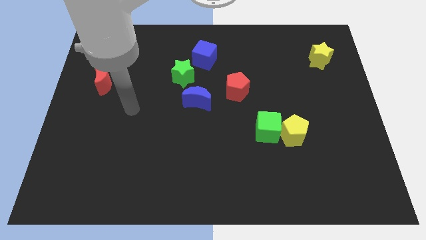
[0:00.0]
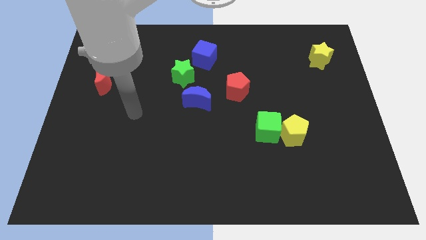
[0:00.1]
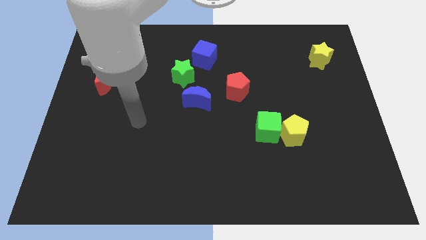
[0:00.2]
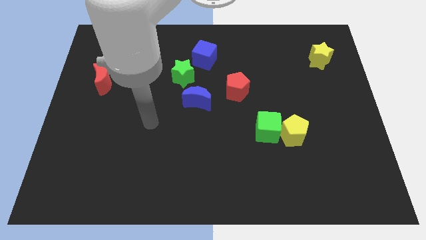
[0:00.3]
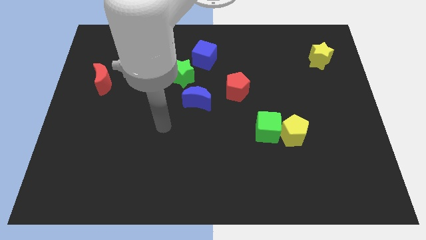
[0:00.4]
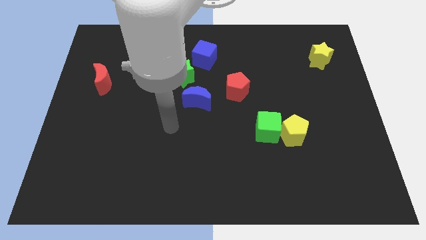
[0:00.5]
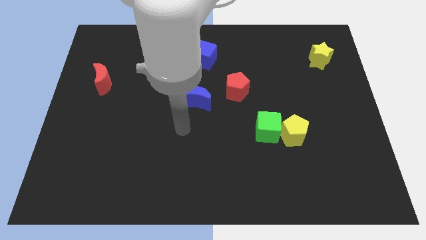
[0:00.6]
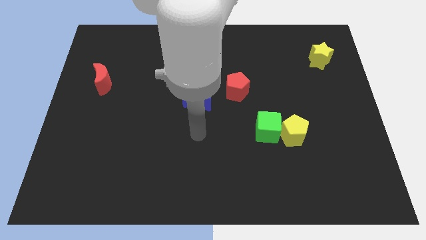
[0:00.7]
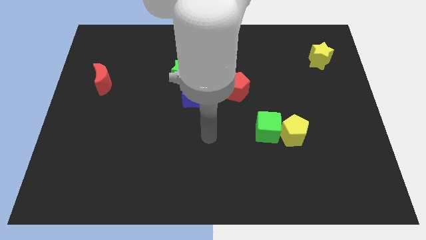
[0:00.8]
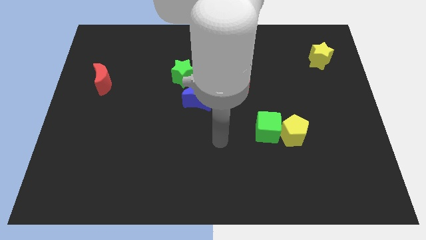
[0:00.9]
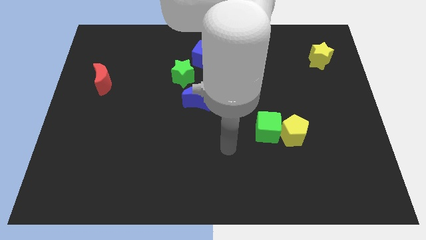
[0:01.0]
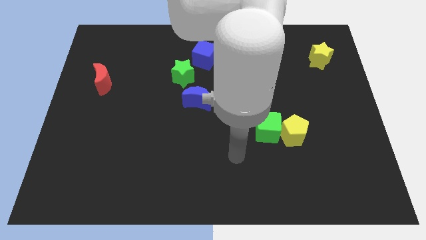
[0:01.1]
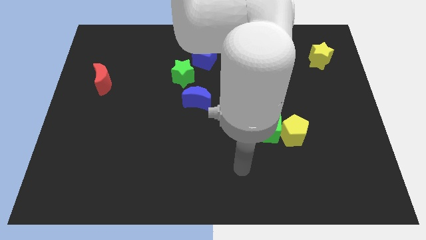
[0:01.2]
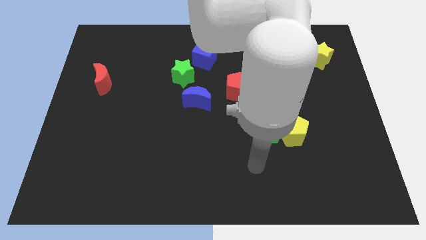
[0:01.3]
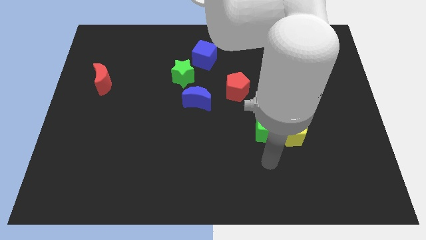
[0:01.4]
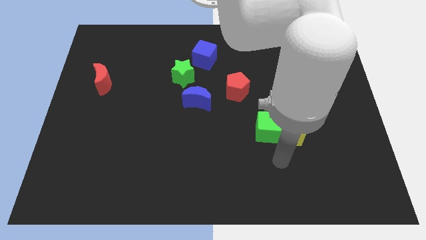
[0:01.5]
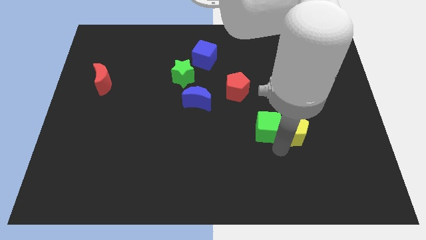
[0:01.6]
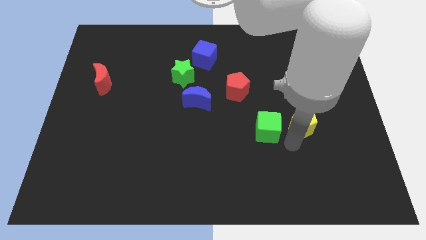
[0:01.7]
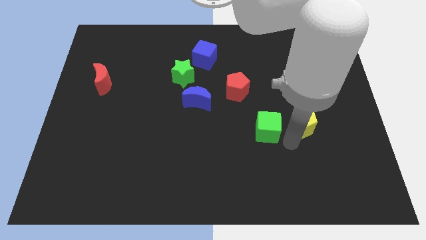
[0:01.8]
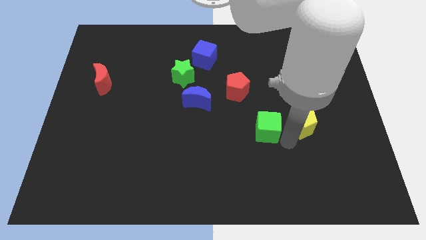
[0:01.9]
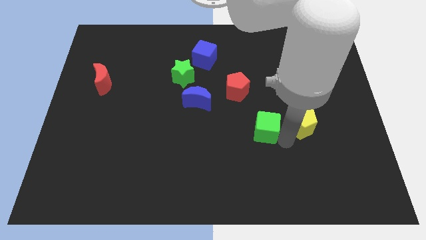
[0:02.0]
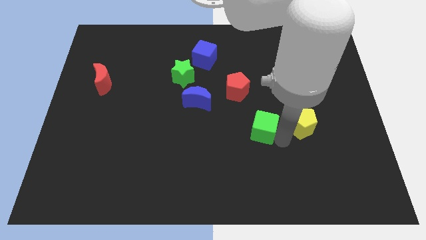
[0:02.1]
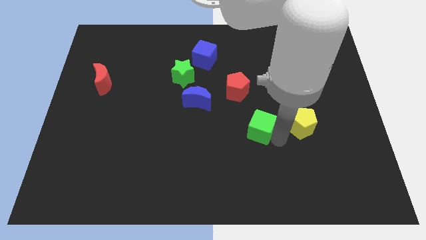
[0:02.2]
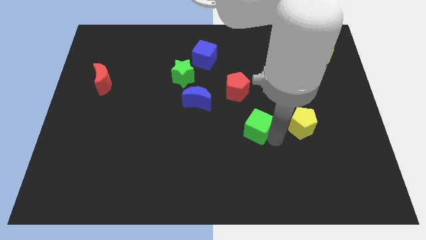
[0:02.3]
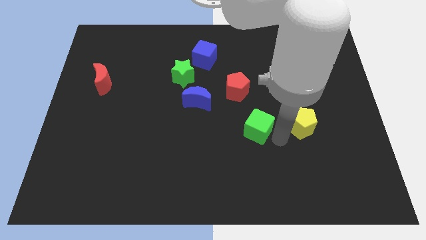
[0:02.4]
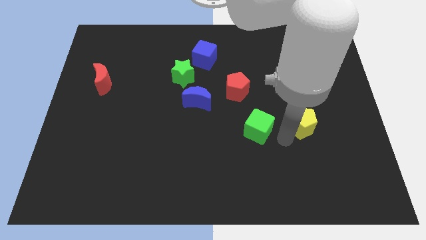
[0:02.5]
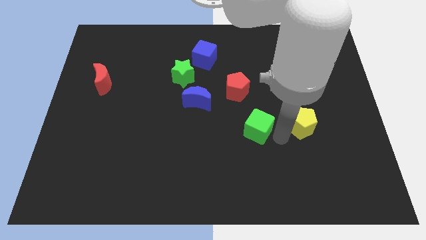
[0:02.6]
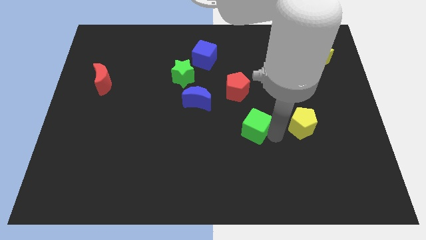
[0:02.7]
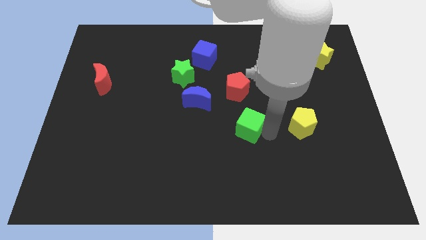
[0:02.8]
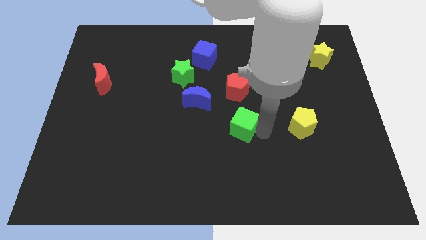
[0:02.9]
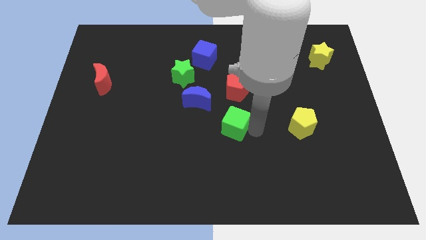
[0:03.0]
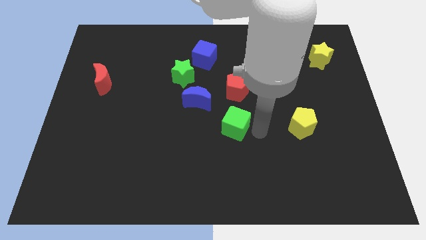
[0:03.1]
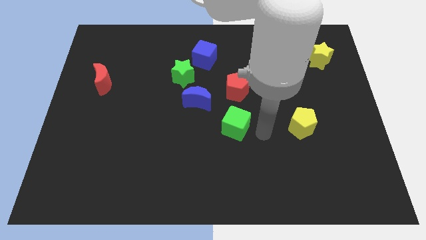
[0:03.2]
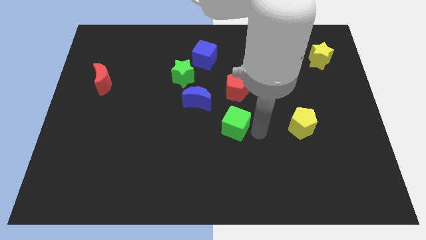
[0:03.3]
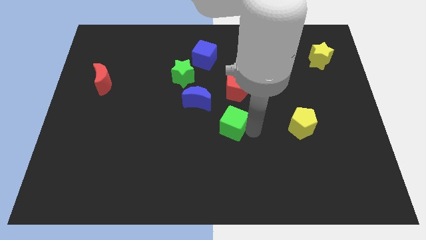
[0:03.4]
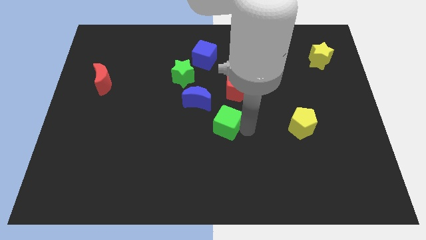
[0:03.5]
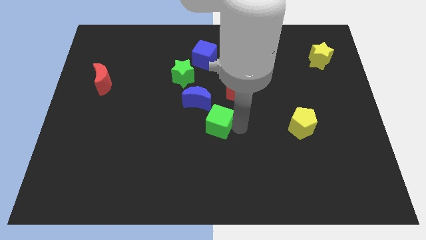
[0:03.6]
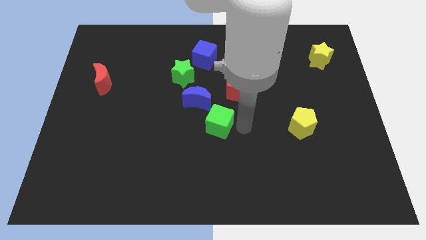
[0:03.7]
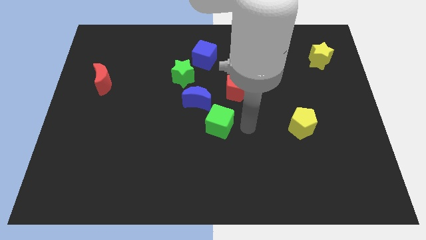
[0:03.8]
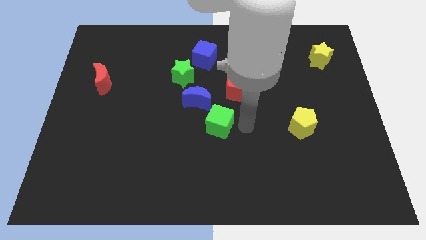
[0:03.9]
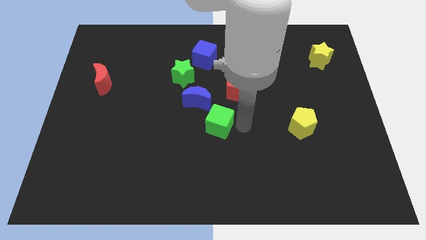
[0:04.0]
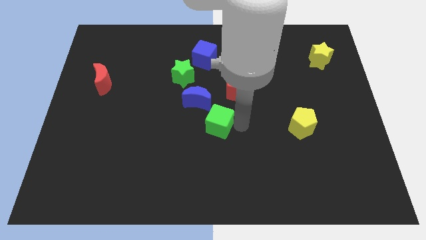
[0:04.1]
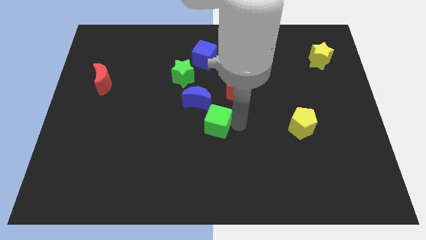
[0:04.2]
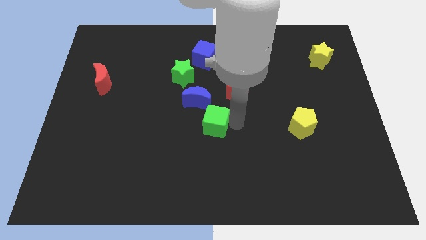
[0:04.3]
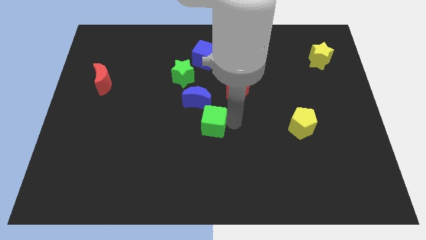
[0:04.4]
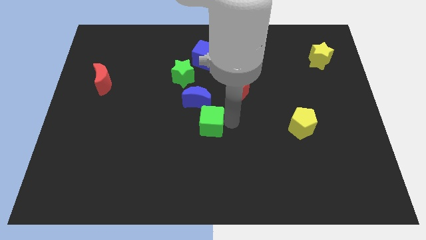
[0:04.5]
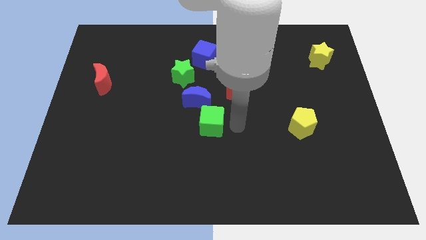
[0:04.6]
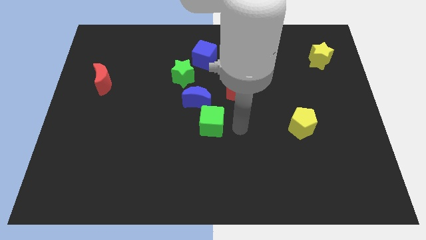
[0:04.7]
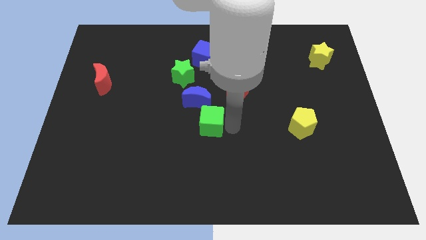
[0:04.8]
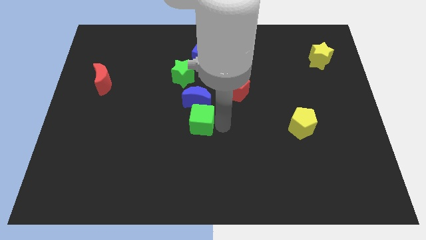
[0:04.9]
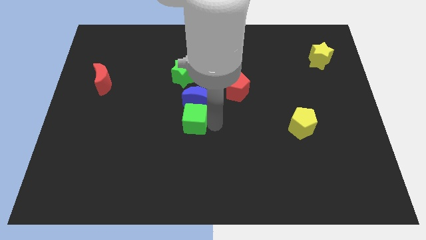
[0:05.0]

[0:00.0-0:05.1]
move the green cube to the bottom left side of the blue moon

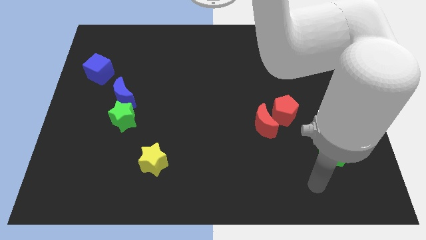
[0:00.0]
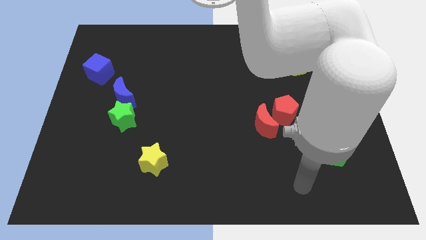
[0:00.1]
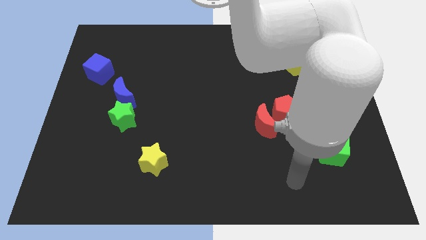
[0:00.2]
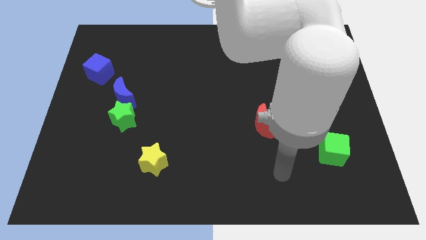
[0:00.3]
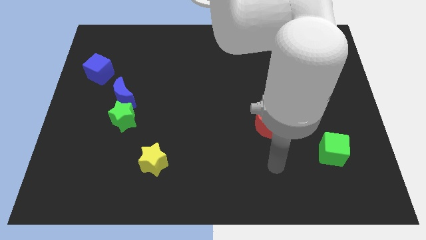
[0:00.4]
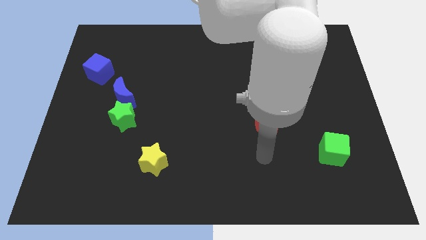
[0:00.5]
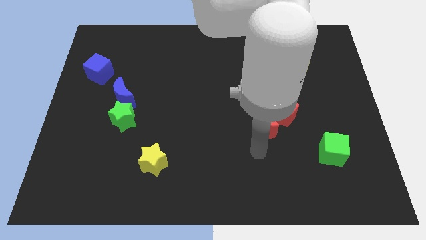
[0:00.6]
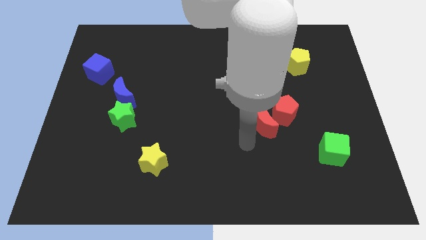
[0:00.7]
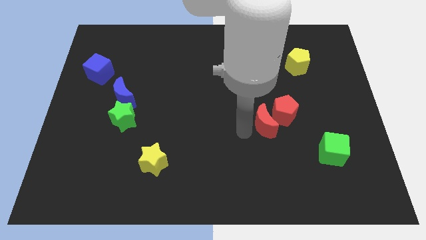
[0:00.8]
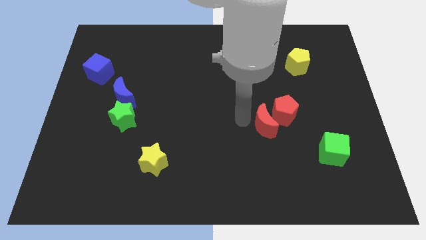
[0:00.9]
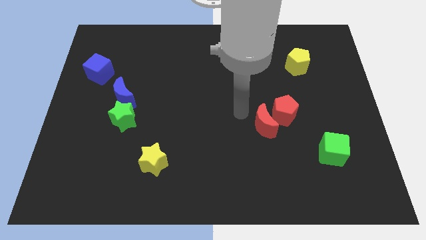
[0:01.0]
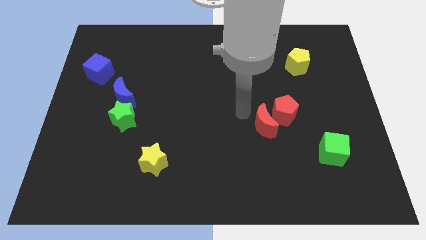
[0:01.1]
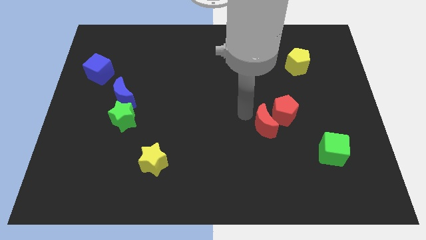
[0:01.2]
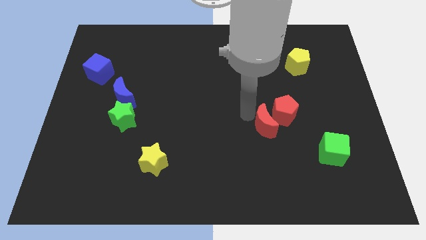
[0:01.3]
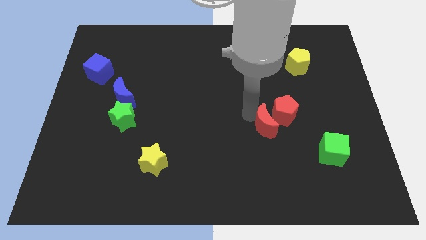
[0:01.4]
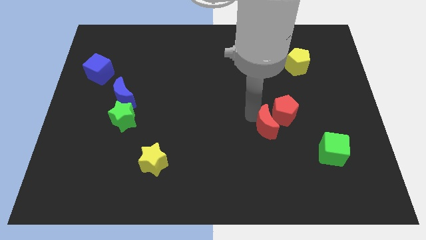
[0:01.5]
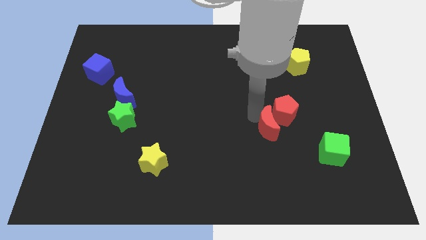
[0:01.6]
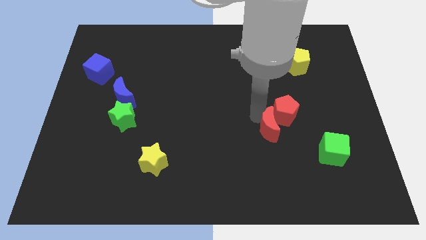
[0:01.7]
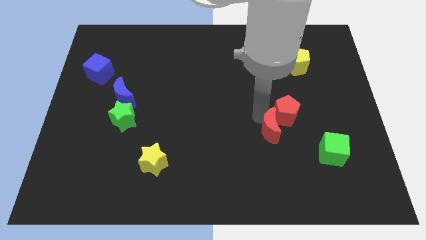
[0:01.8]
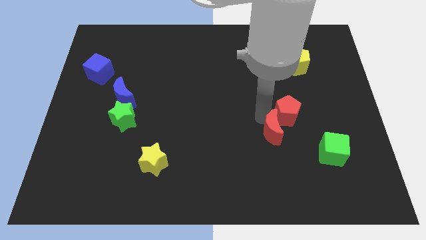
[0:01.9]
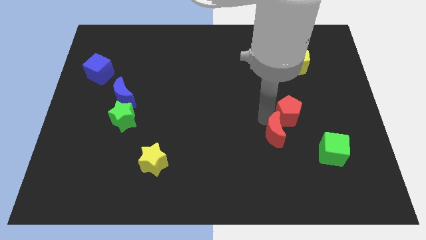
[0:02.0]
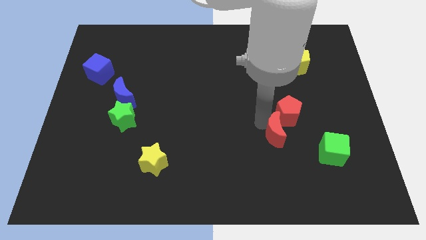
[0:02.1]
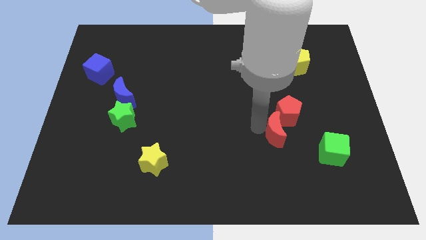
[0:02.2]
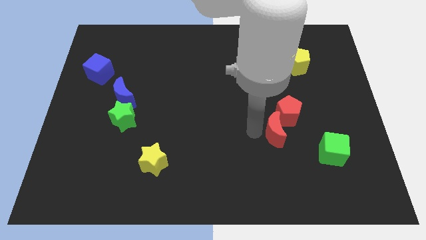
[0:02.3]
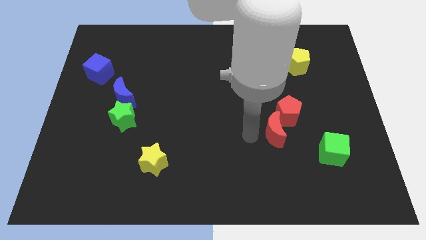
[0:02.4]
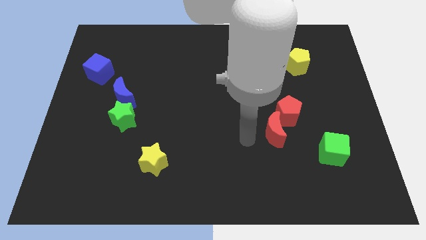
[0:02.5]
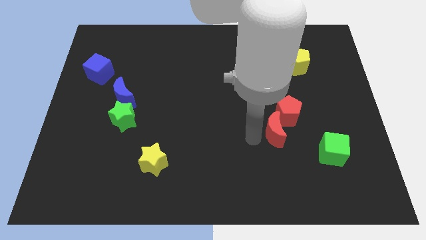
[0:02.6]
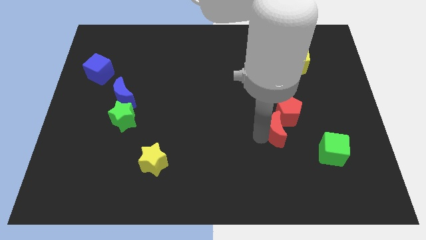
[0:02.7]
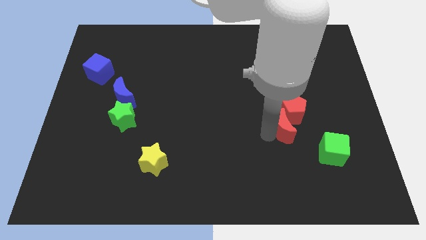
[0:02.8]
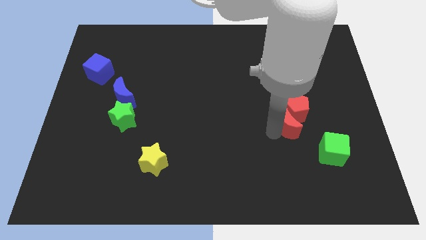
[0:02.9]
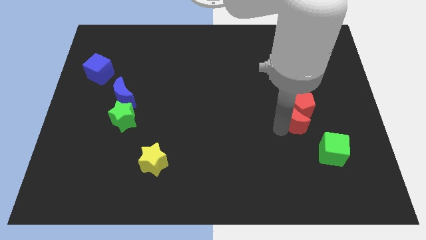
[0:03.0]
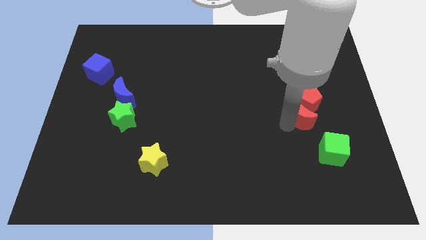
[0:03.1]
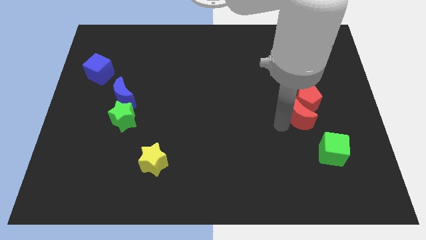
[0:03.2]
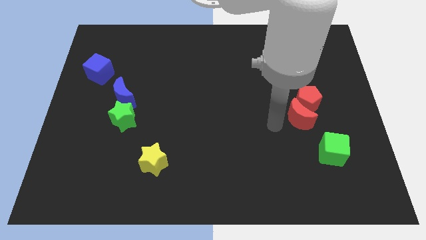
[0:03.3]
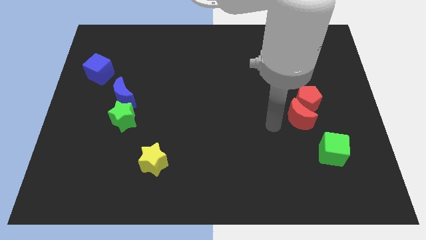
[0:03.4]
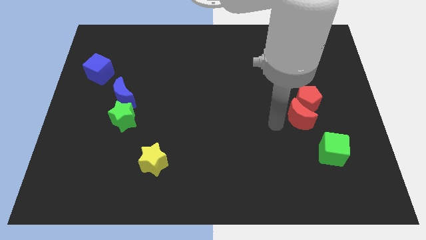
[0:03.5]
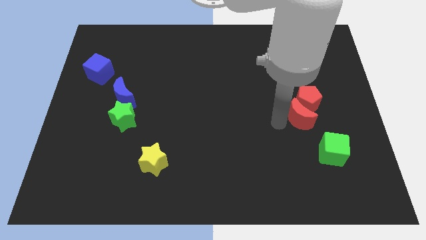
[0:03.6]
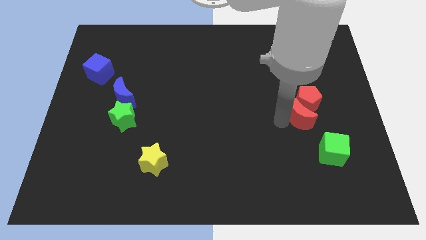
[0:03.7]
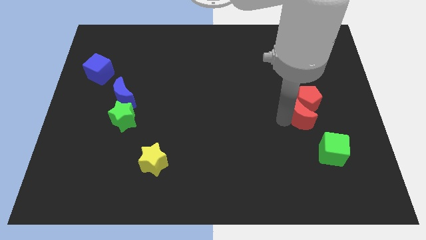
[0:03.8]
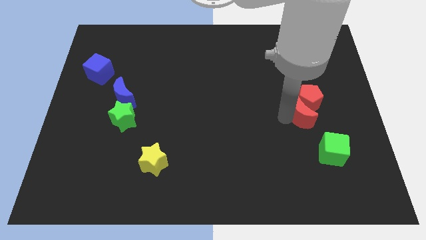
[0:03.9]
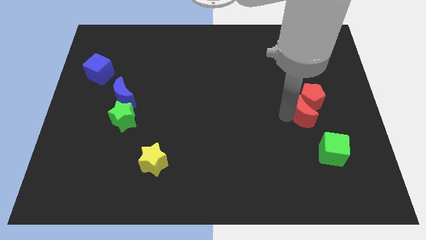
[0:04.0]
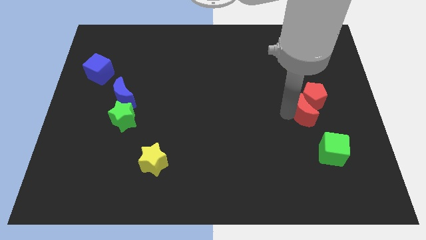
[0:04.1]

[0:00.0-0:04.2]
push the red moon to the top of the green cube
